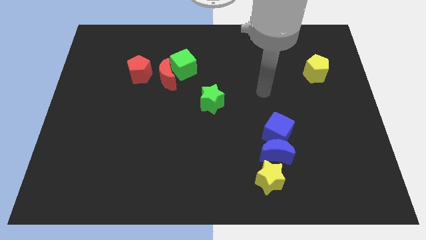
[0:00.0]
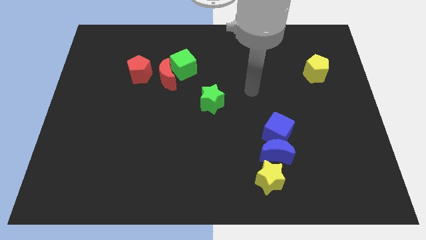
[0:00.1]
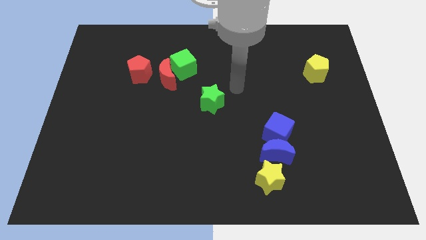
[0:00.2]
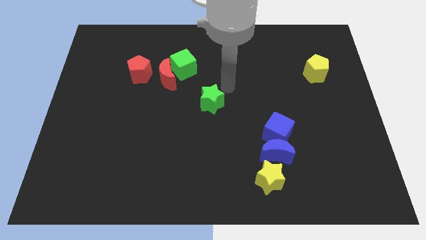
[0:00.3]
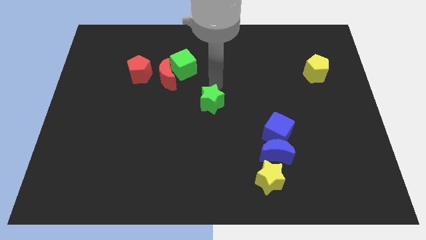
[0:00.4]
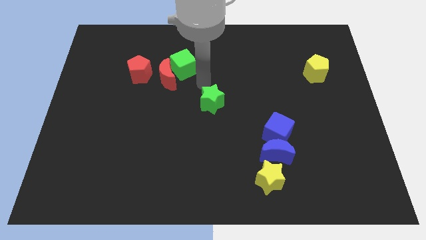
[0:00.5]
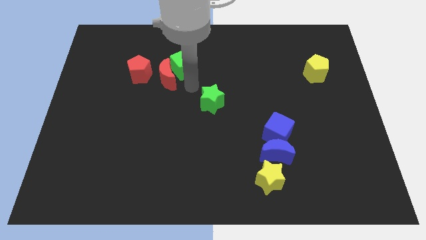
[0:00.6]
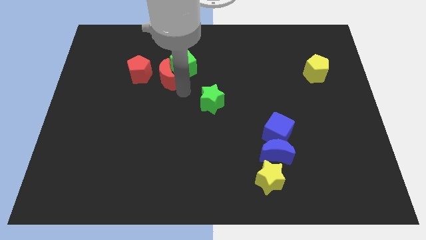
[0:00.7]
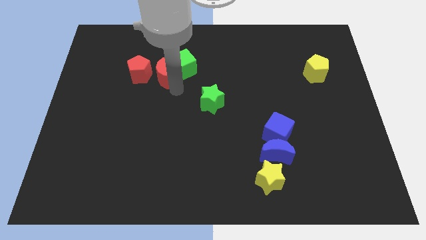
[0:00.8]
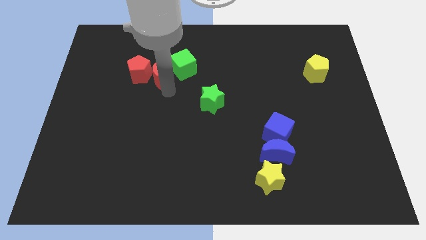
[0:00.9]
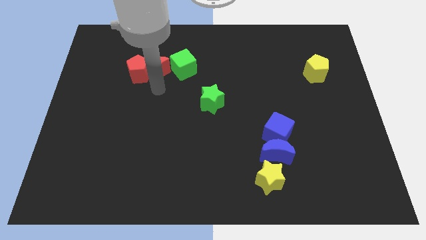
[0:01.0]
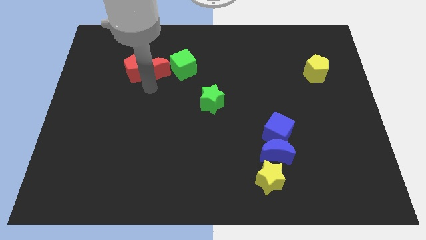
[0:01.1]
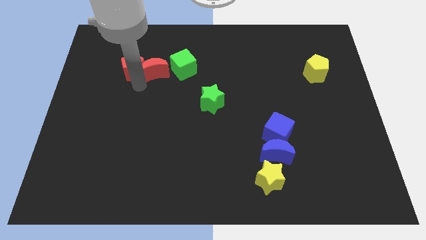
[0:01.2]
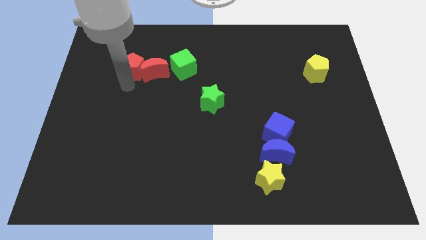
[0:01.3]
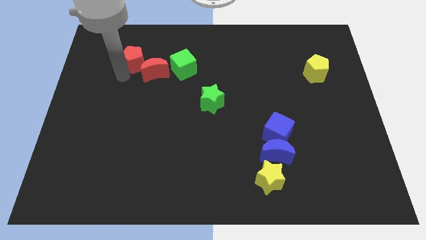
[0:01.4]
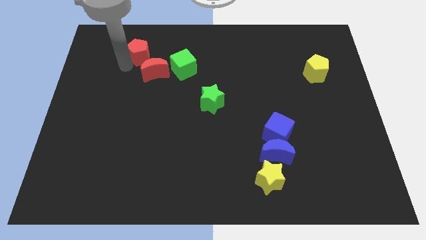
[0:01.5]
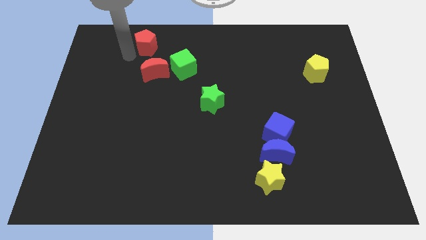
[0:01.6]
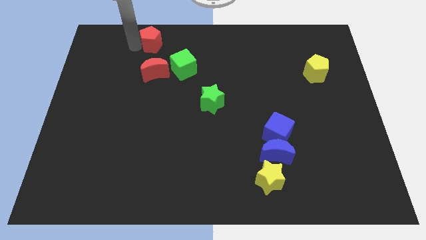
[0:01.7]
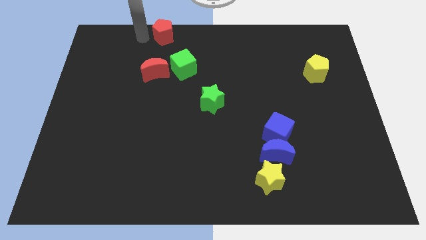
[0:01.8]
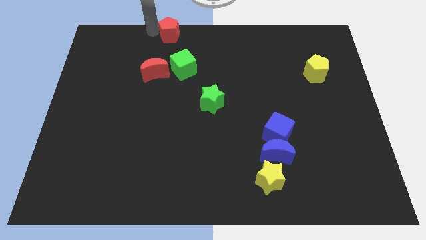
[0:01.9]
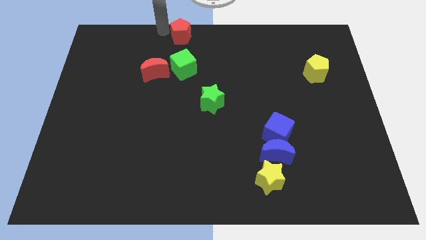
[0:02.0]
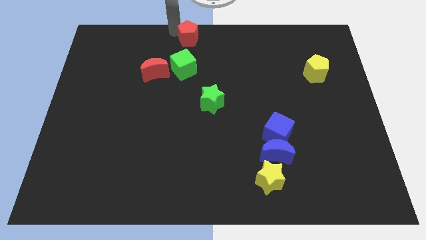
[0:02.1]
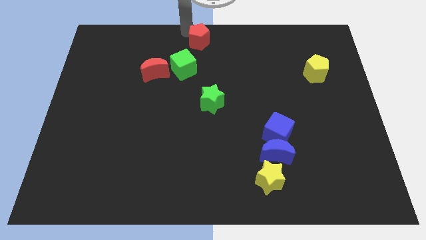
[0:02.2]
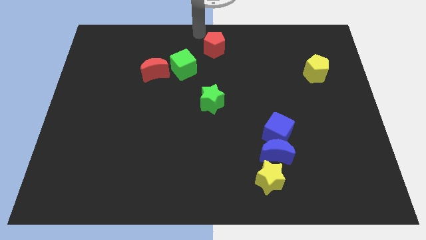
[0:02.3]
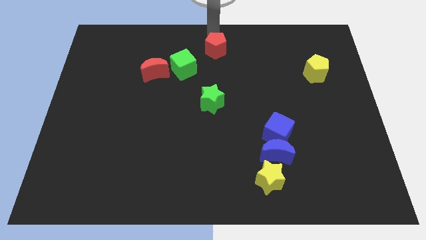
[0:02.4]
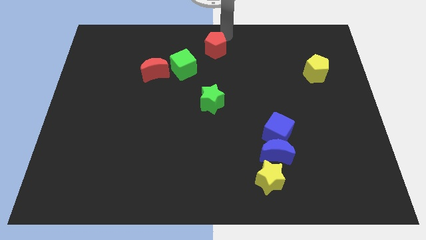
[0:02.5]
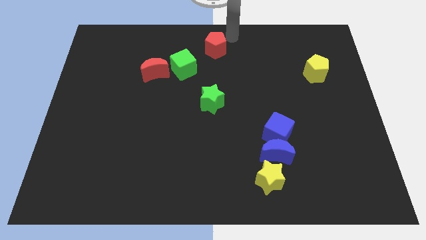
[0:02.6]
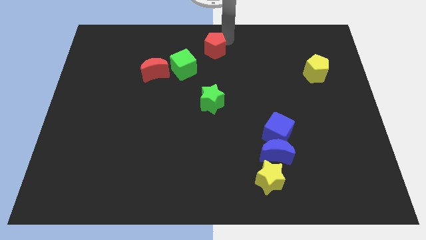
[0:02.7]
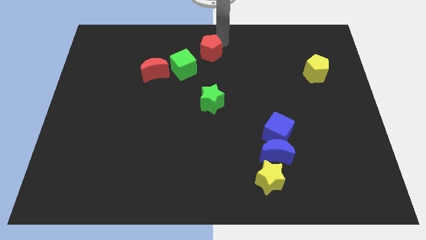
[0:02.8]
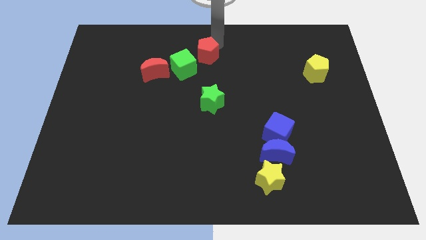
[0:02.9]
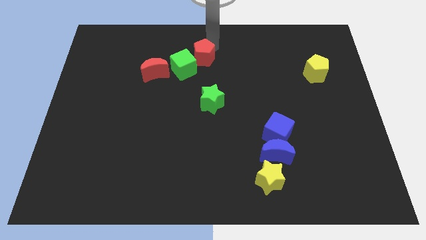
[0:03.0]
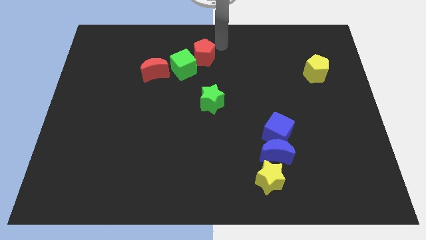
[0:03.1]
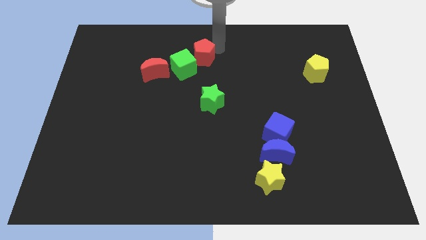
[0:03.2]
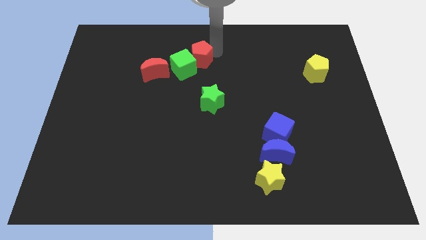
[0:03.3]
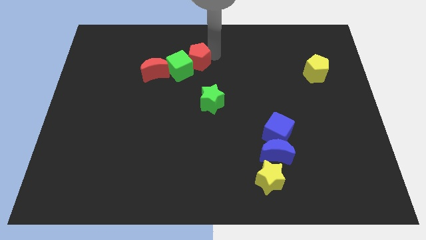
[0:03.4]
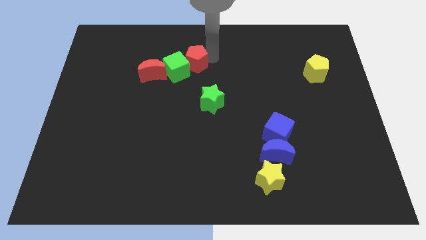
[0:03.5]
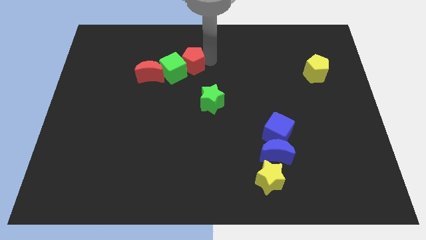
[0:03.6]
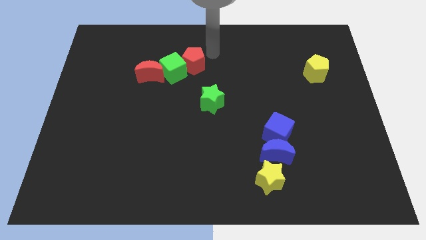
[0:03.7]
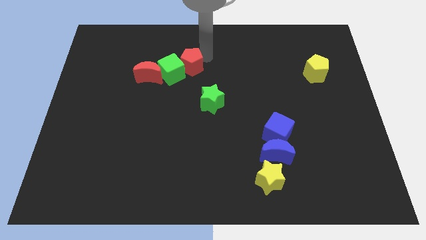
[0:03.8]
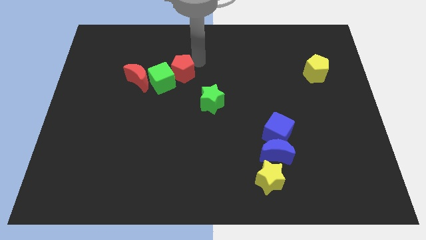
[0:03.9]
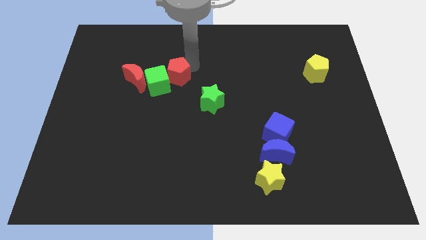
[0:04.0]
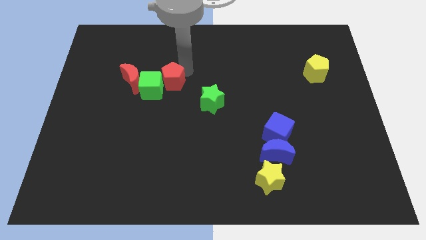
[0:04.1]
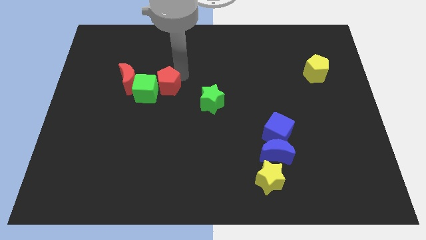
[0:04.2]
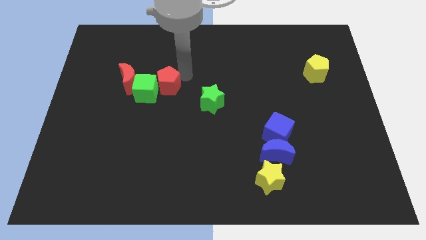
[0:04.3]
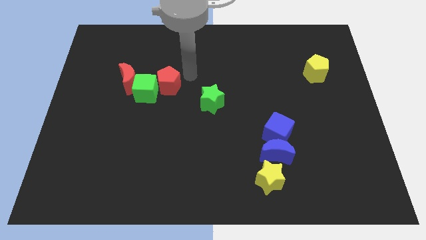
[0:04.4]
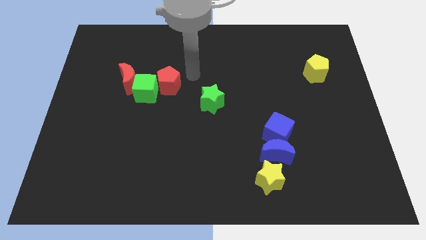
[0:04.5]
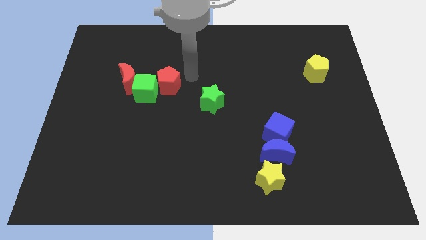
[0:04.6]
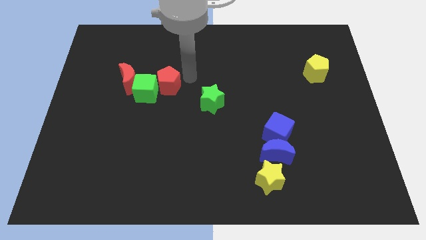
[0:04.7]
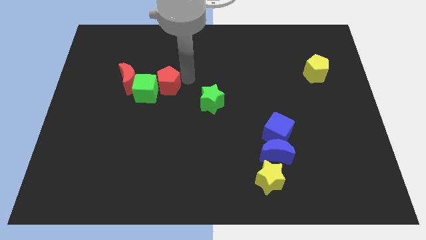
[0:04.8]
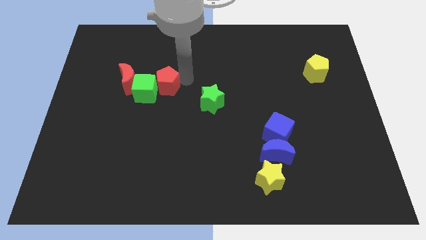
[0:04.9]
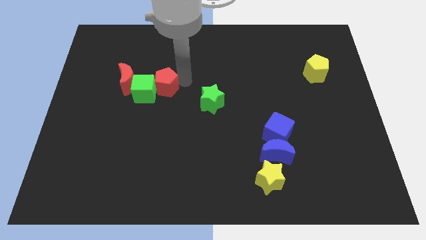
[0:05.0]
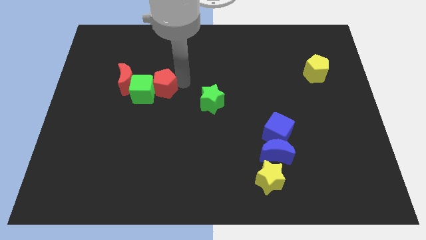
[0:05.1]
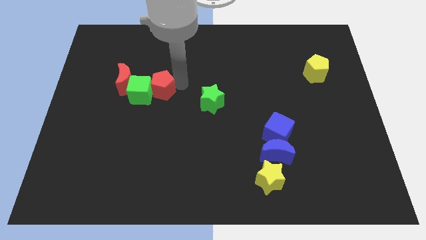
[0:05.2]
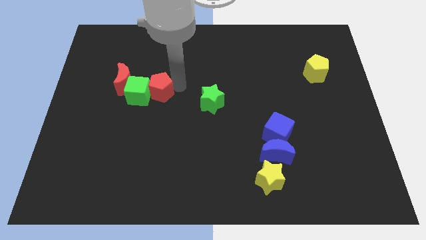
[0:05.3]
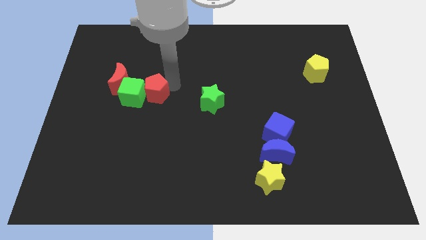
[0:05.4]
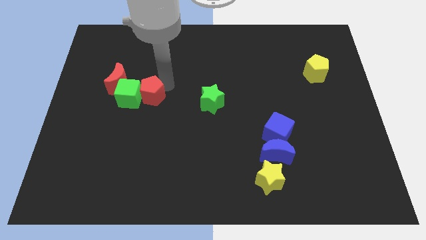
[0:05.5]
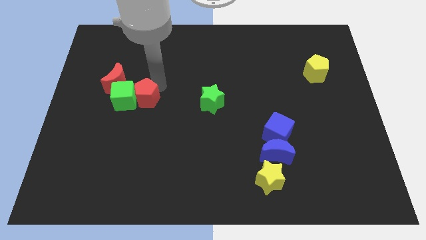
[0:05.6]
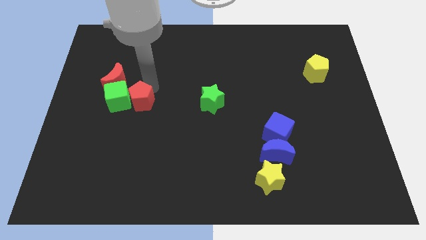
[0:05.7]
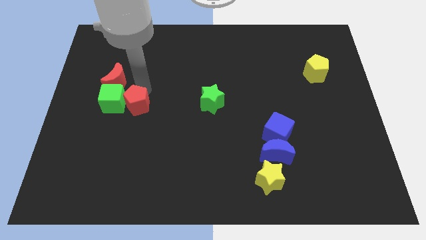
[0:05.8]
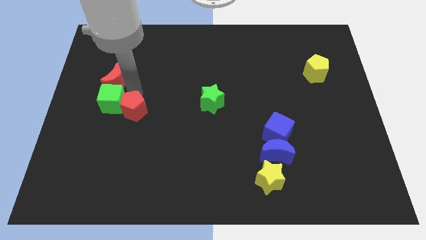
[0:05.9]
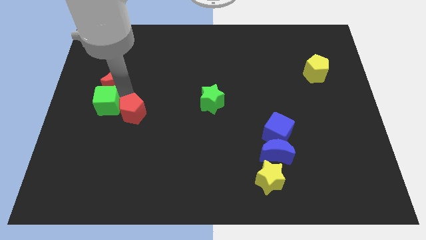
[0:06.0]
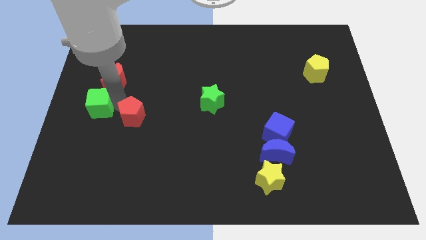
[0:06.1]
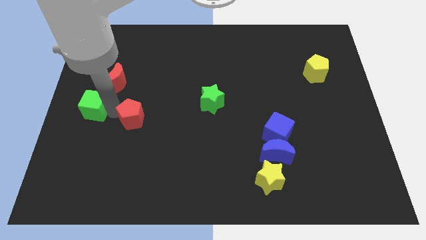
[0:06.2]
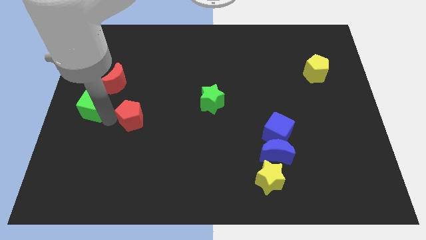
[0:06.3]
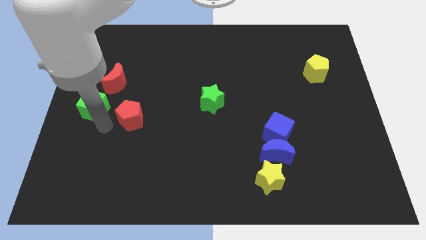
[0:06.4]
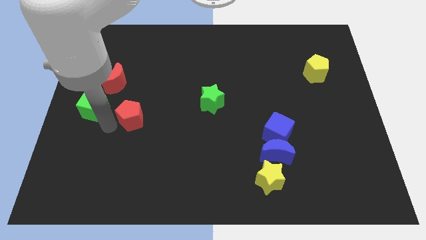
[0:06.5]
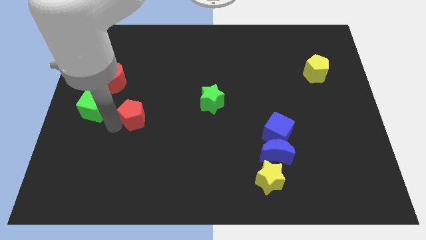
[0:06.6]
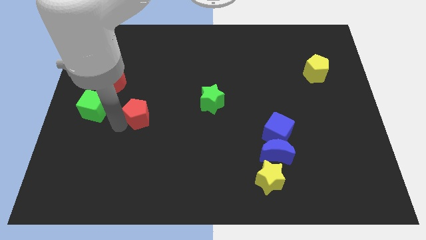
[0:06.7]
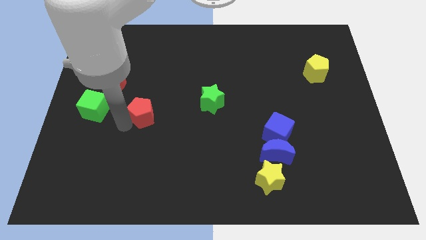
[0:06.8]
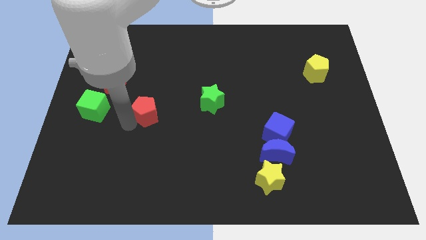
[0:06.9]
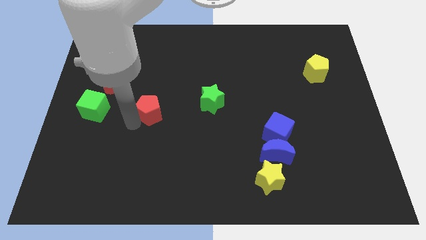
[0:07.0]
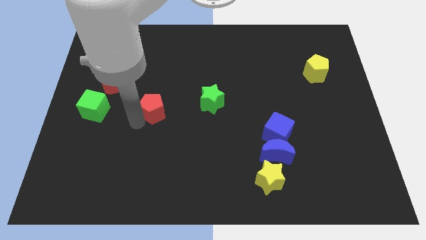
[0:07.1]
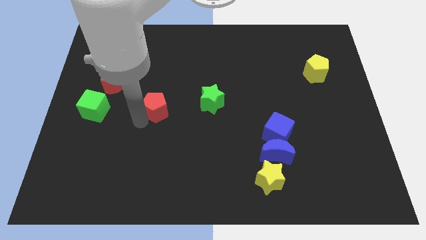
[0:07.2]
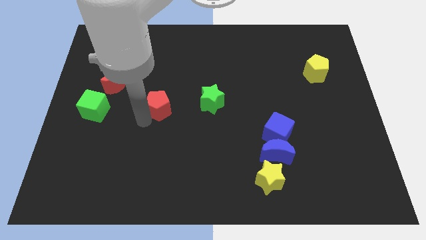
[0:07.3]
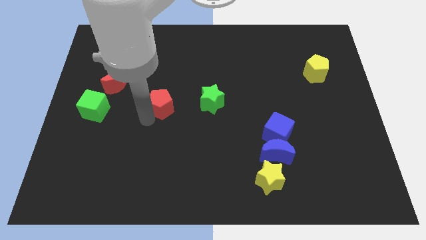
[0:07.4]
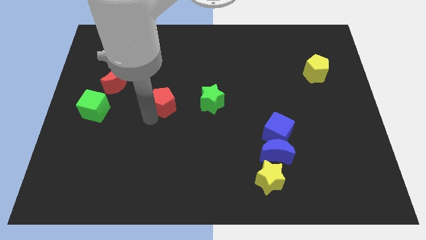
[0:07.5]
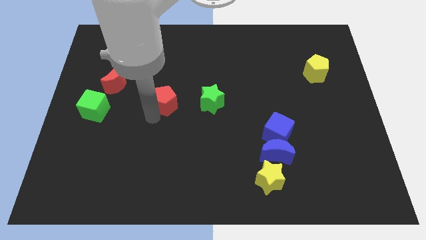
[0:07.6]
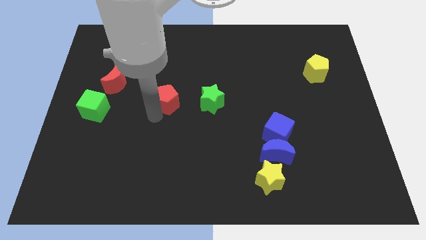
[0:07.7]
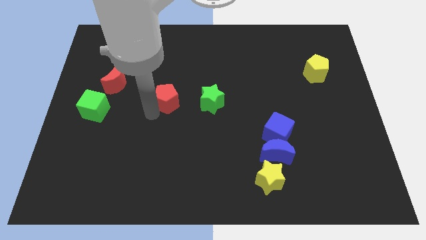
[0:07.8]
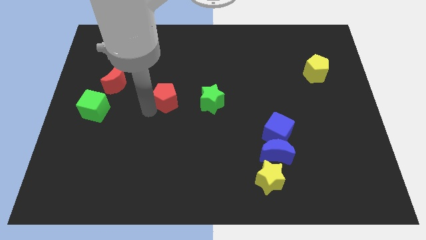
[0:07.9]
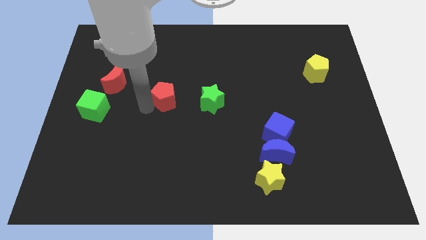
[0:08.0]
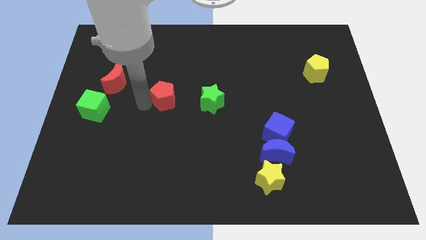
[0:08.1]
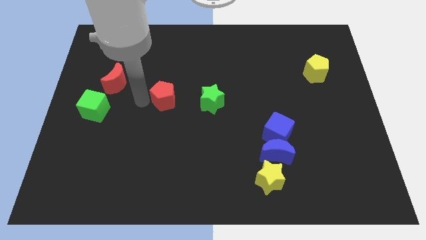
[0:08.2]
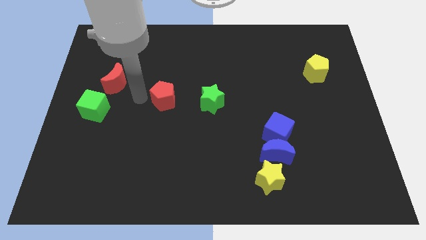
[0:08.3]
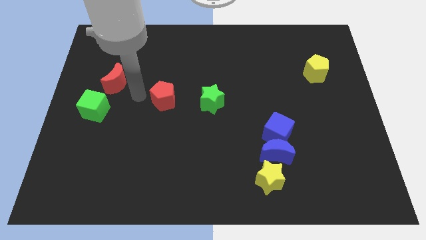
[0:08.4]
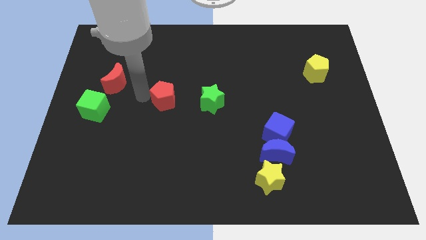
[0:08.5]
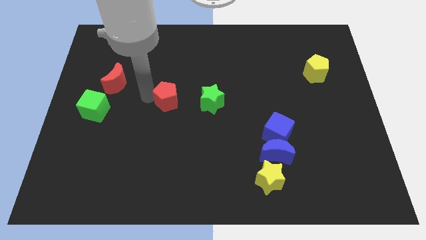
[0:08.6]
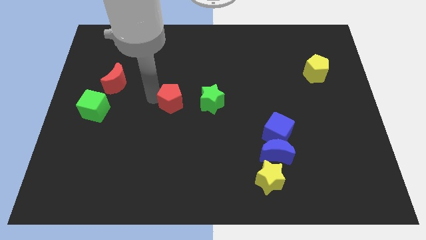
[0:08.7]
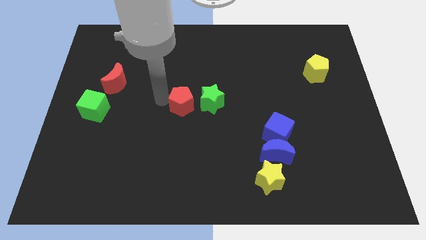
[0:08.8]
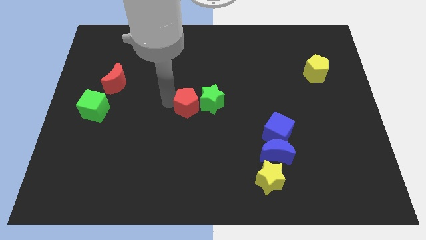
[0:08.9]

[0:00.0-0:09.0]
put the red pentagon close to the green star
